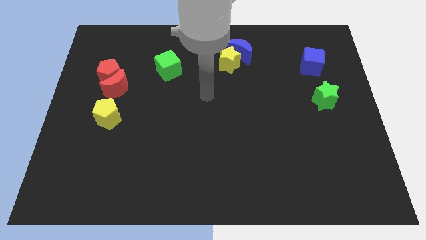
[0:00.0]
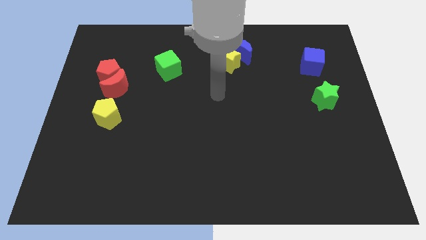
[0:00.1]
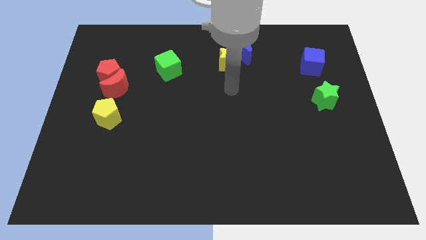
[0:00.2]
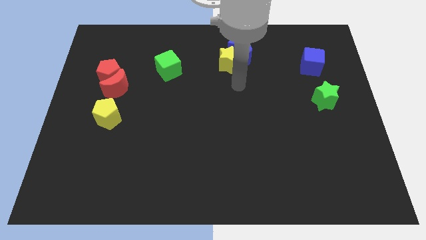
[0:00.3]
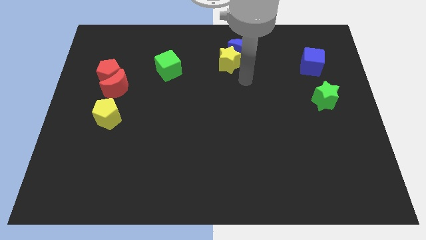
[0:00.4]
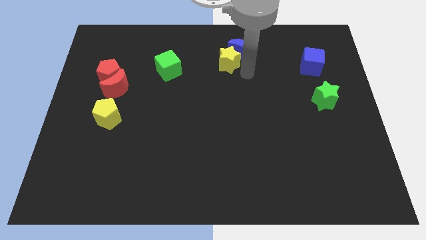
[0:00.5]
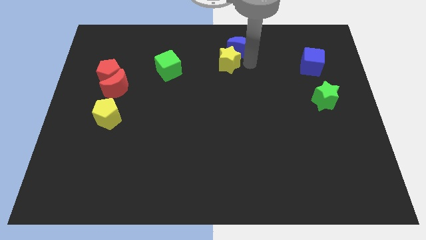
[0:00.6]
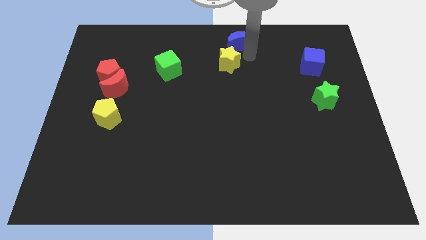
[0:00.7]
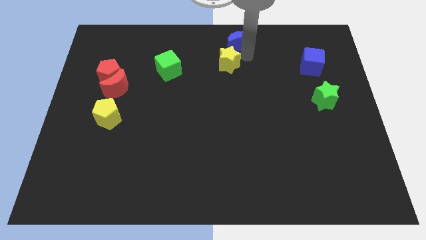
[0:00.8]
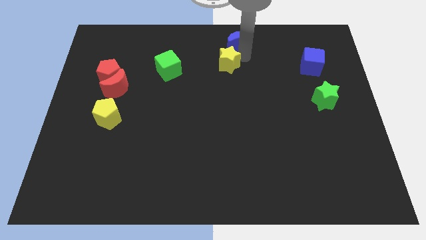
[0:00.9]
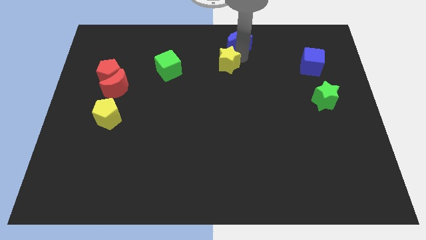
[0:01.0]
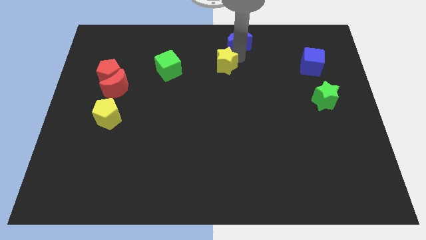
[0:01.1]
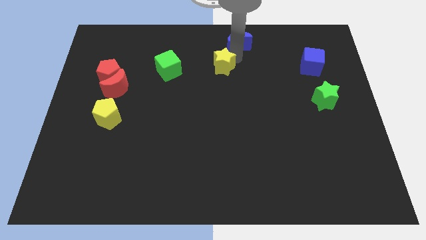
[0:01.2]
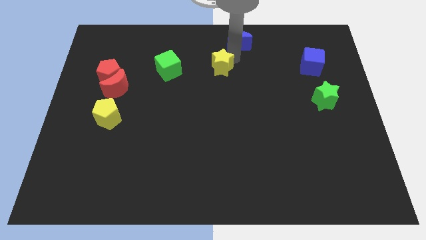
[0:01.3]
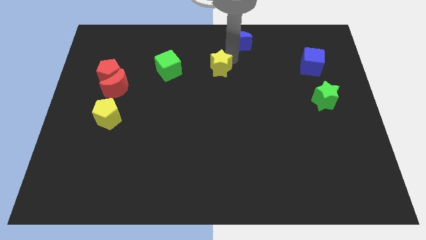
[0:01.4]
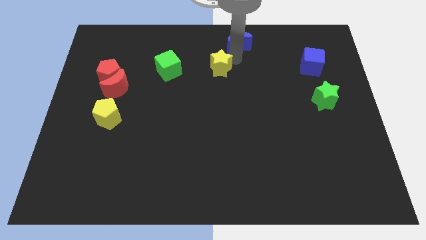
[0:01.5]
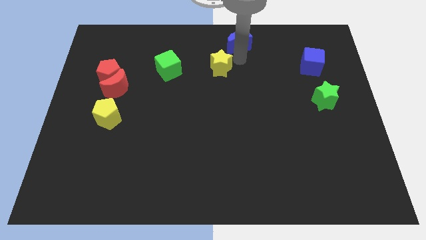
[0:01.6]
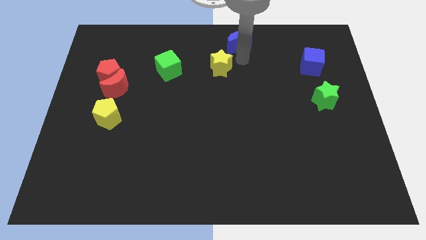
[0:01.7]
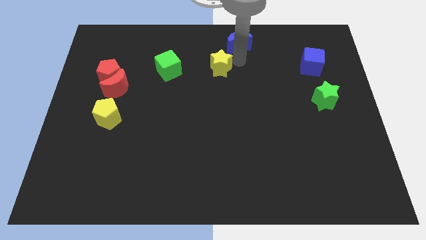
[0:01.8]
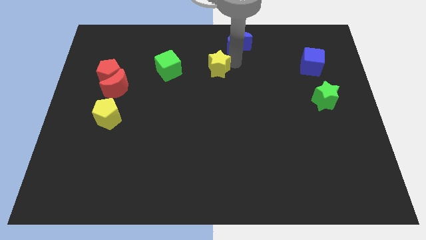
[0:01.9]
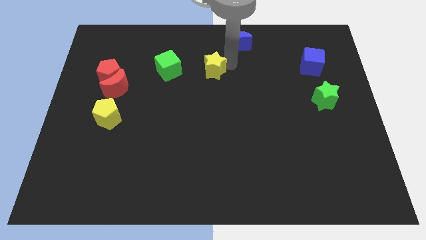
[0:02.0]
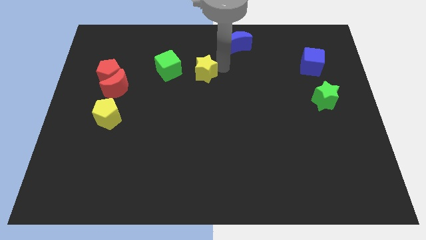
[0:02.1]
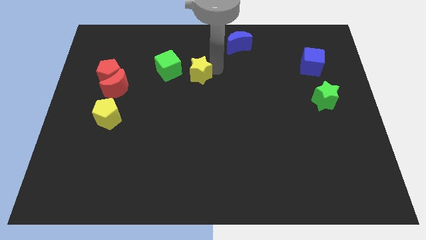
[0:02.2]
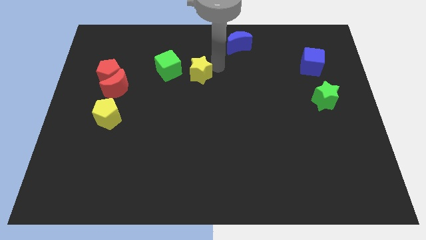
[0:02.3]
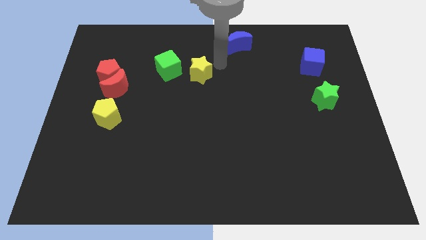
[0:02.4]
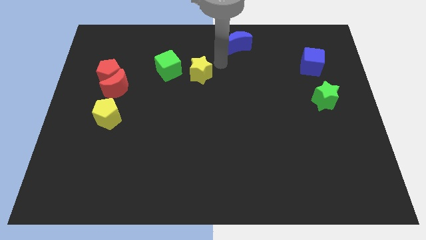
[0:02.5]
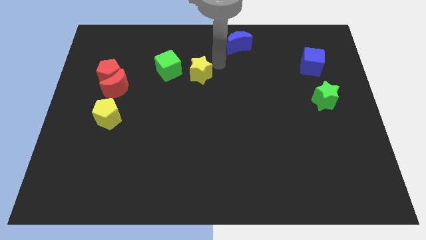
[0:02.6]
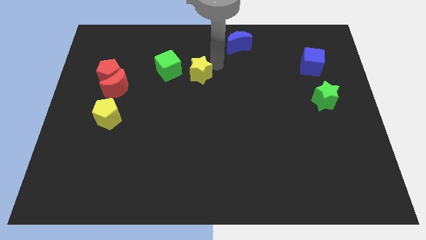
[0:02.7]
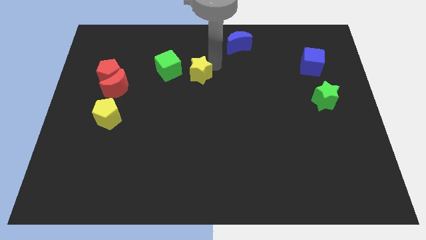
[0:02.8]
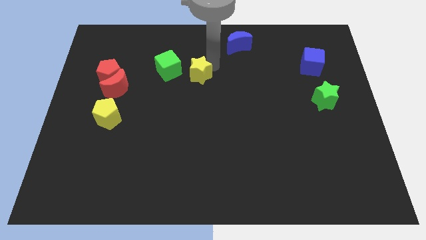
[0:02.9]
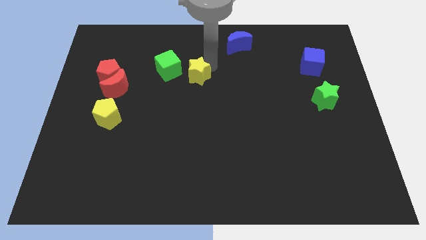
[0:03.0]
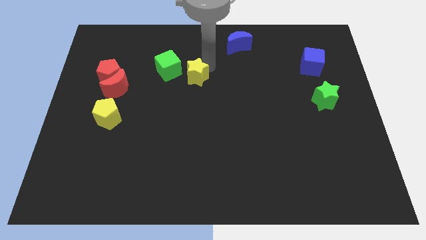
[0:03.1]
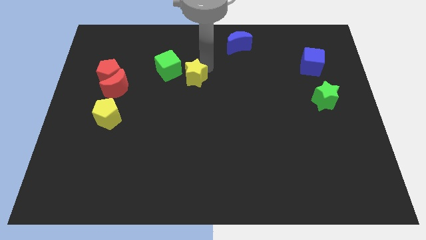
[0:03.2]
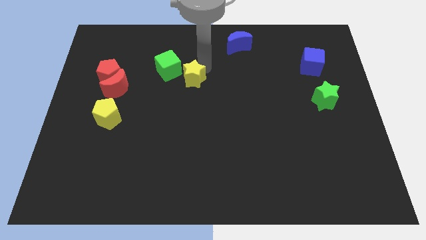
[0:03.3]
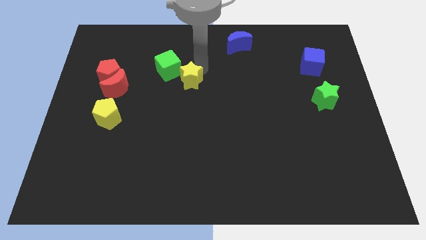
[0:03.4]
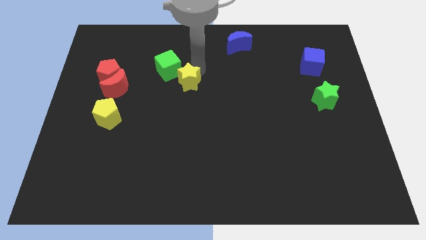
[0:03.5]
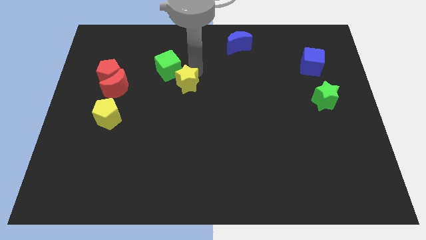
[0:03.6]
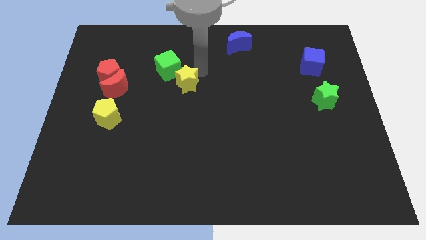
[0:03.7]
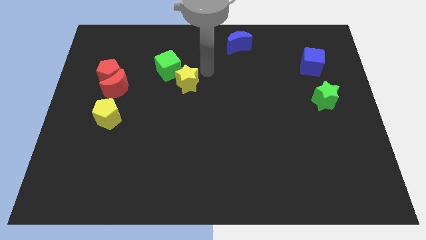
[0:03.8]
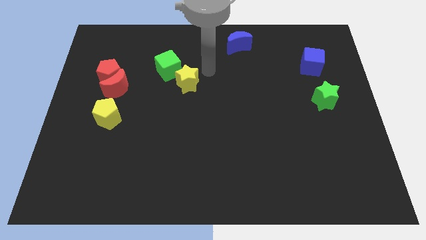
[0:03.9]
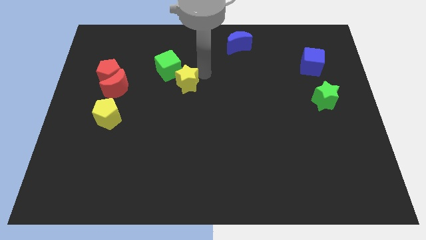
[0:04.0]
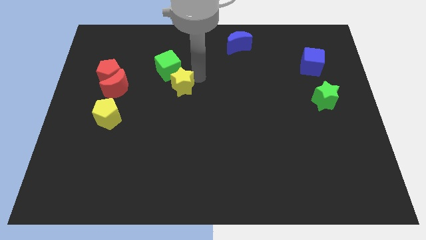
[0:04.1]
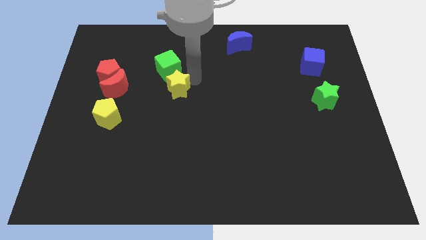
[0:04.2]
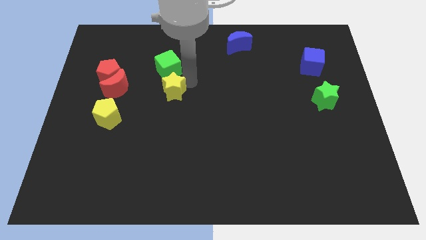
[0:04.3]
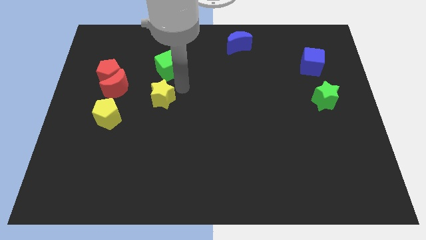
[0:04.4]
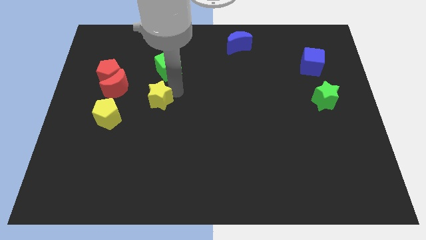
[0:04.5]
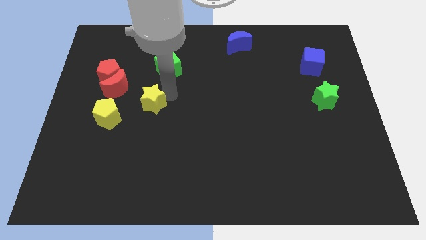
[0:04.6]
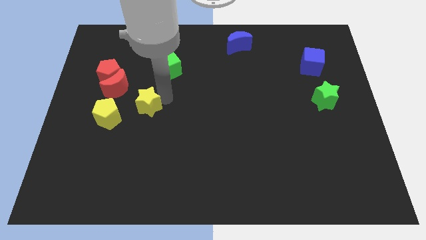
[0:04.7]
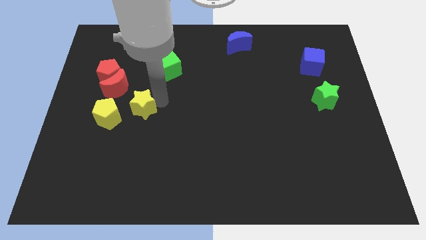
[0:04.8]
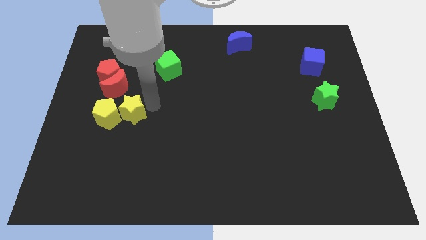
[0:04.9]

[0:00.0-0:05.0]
put the yellow star towards the yellow pentagon

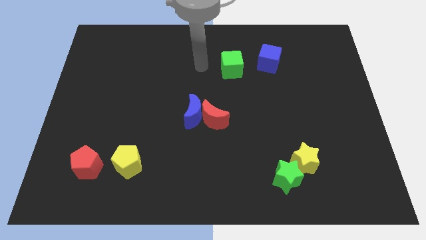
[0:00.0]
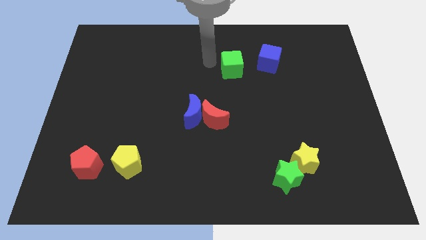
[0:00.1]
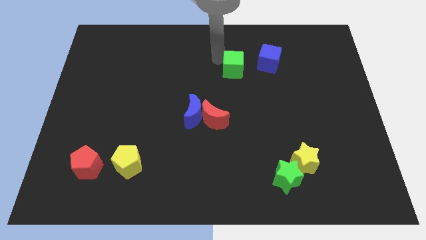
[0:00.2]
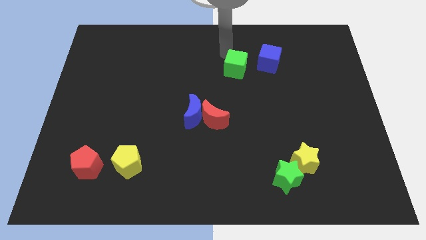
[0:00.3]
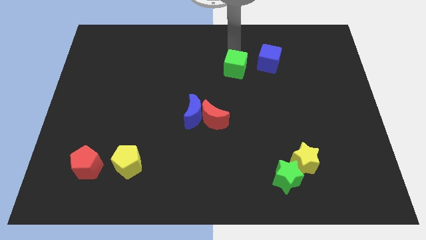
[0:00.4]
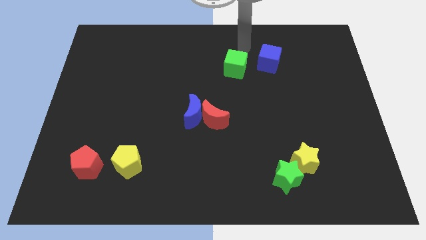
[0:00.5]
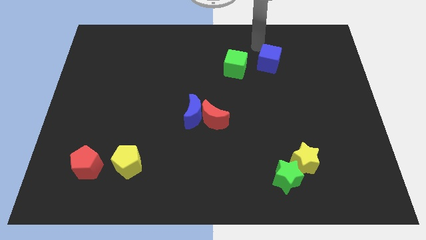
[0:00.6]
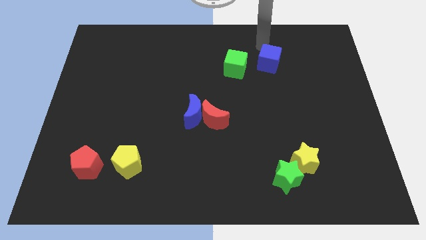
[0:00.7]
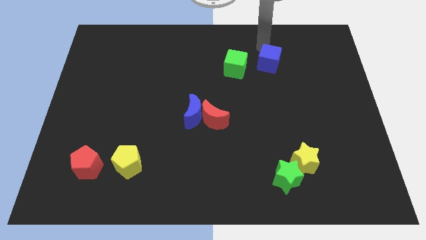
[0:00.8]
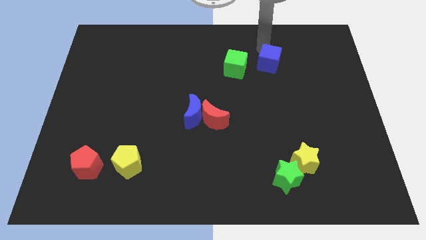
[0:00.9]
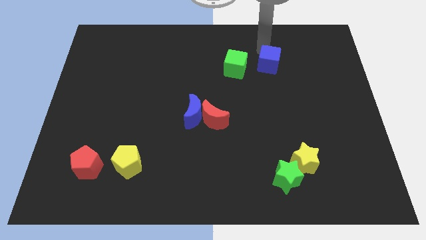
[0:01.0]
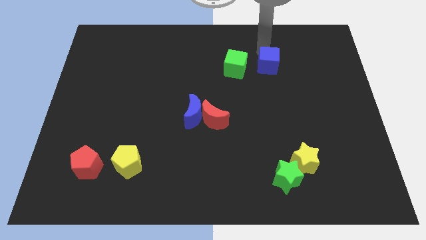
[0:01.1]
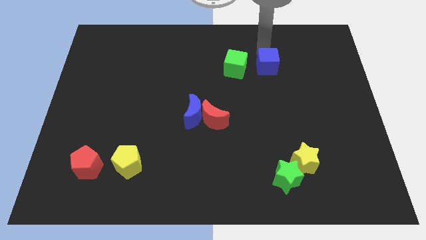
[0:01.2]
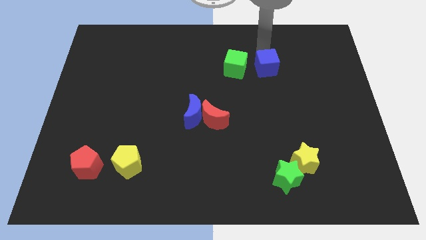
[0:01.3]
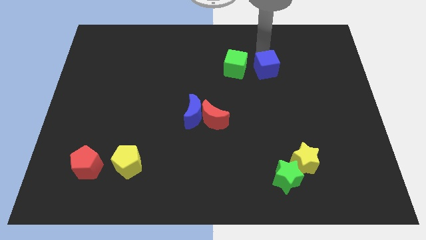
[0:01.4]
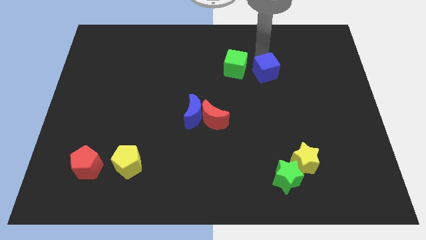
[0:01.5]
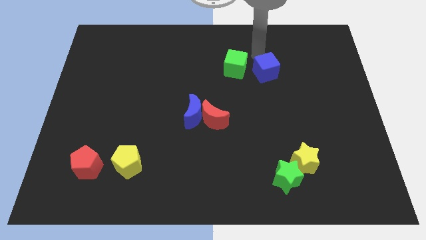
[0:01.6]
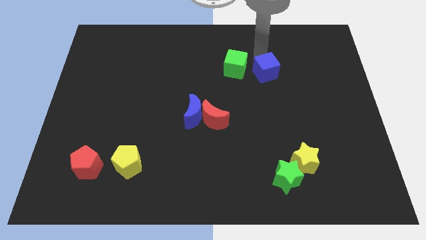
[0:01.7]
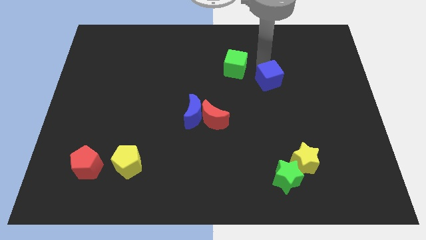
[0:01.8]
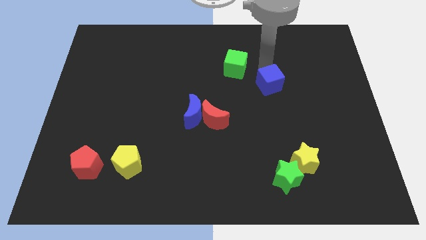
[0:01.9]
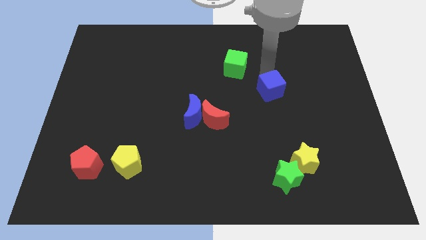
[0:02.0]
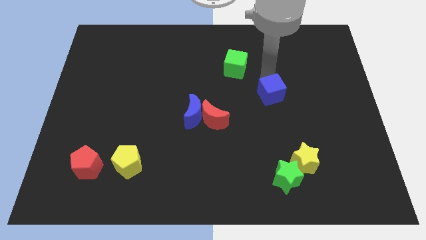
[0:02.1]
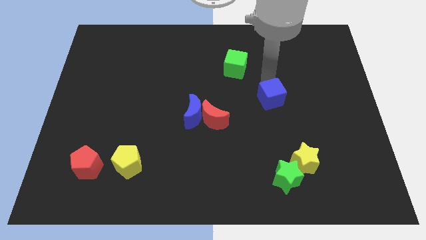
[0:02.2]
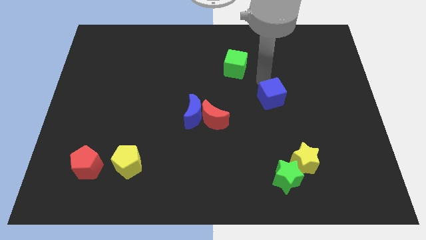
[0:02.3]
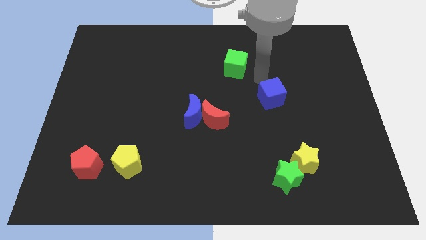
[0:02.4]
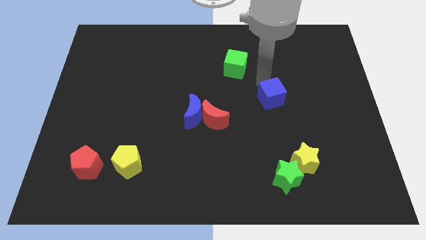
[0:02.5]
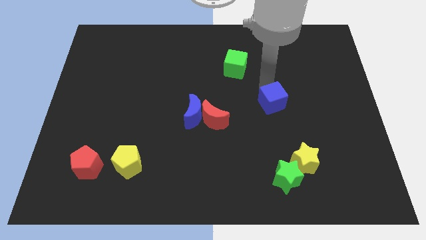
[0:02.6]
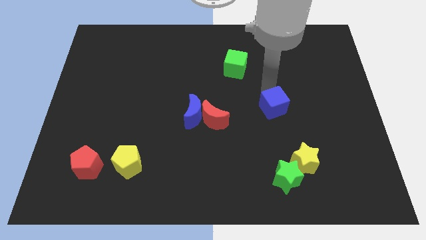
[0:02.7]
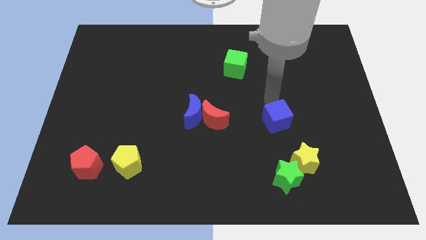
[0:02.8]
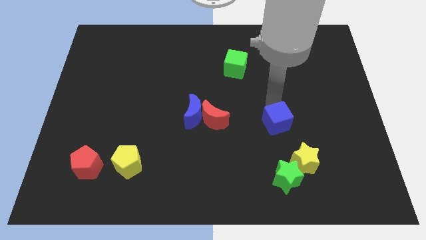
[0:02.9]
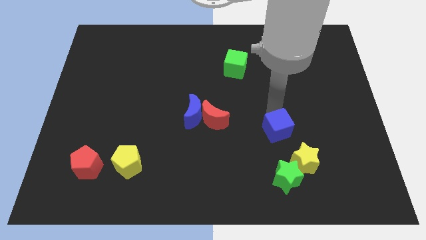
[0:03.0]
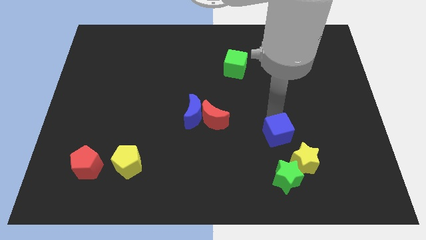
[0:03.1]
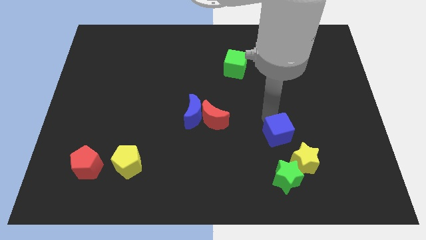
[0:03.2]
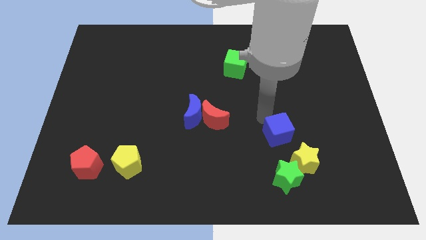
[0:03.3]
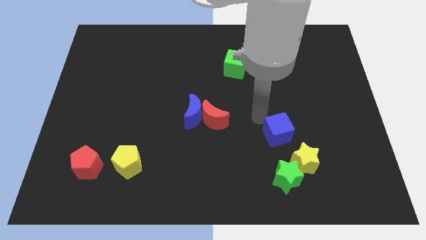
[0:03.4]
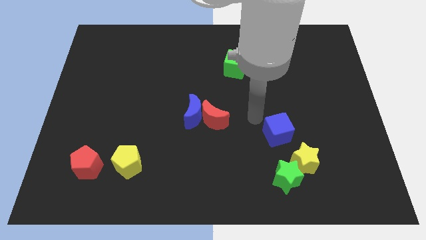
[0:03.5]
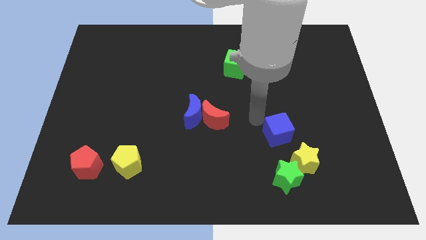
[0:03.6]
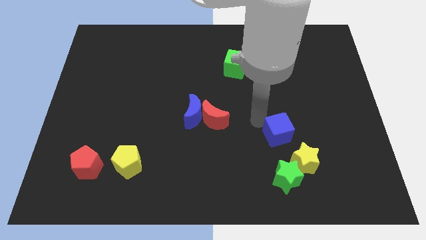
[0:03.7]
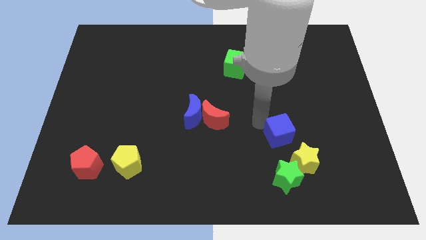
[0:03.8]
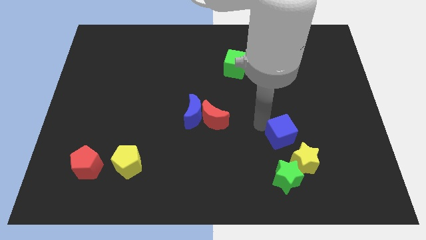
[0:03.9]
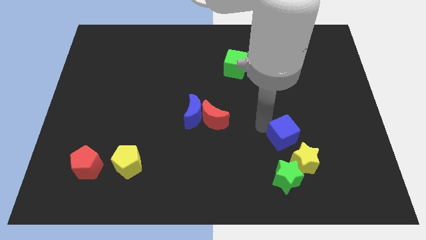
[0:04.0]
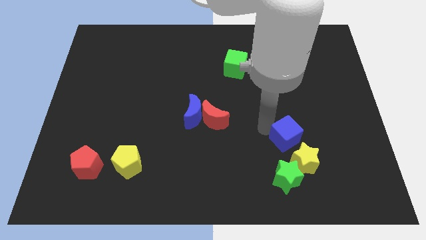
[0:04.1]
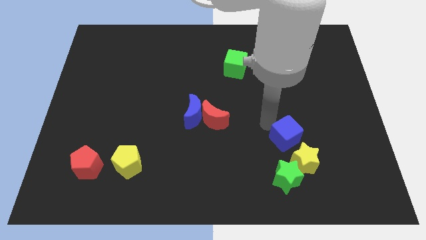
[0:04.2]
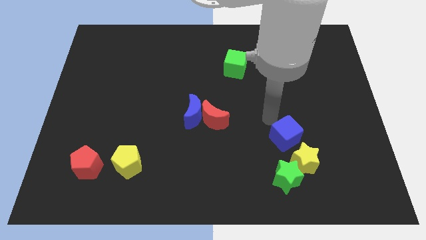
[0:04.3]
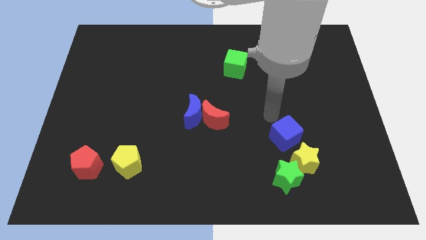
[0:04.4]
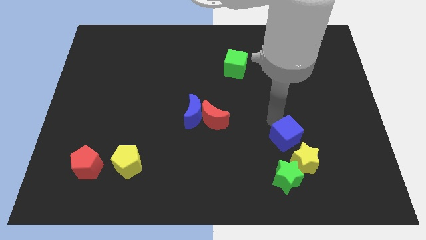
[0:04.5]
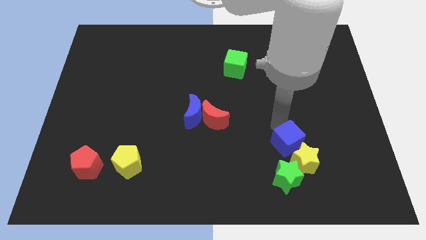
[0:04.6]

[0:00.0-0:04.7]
put the blue cube next to the yellow star
